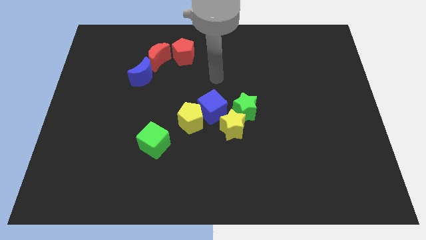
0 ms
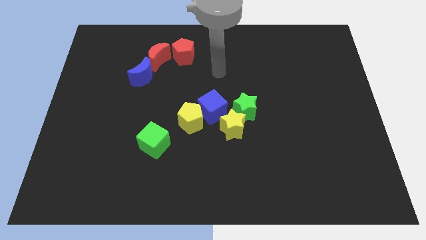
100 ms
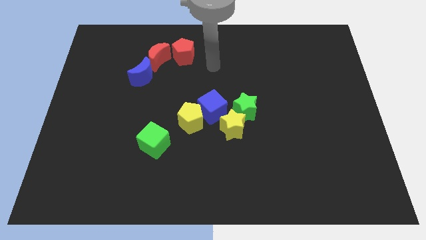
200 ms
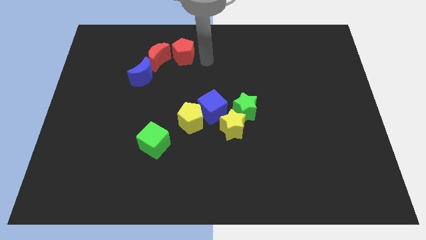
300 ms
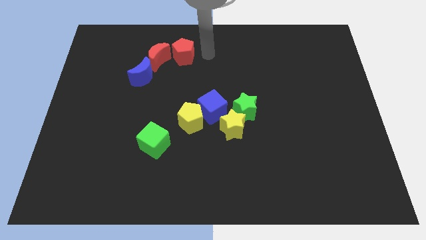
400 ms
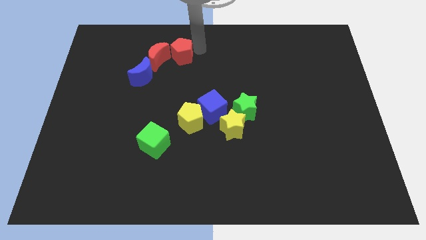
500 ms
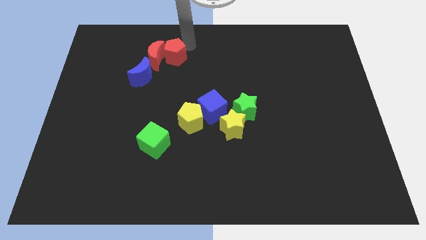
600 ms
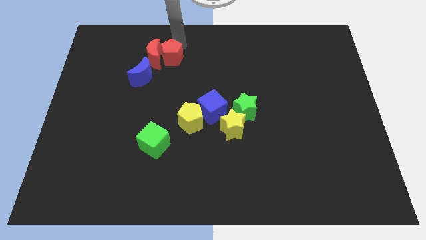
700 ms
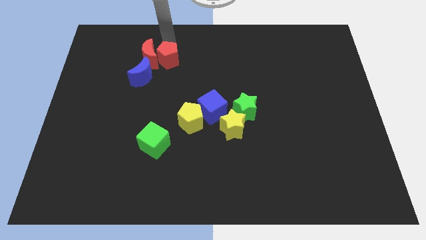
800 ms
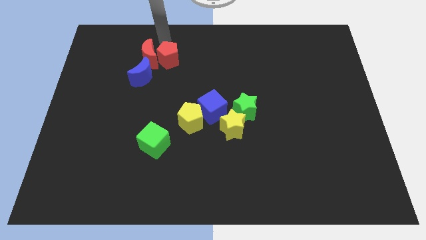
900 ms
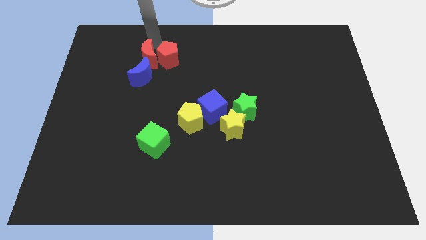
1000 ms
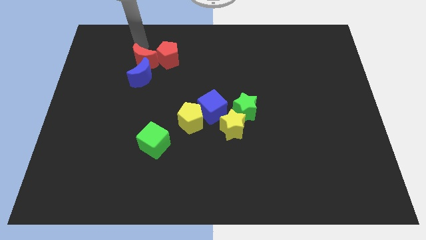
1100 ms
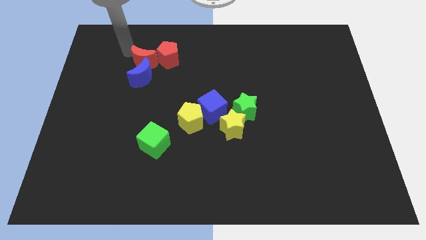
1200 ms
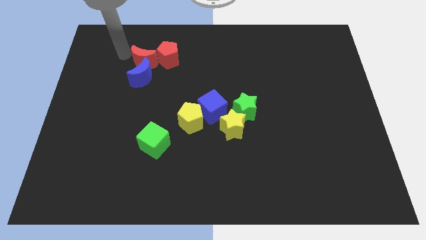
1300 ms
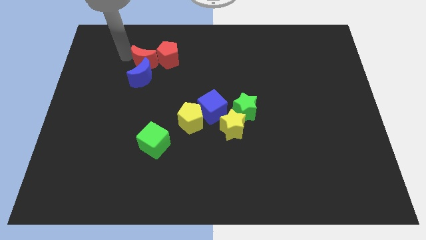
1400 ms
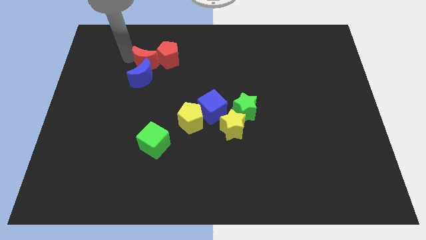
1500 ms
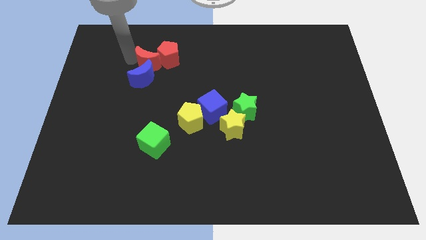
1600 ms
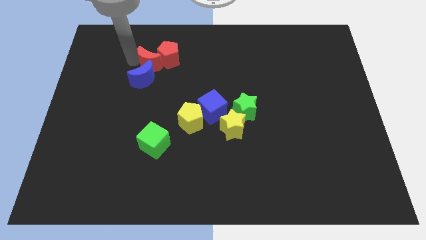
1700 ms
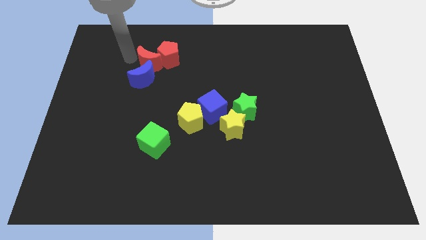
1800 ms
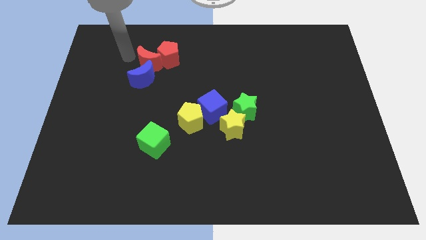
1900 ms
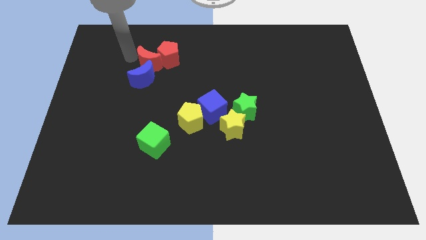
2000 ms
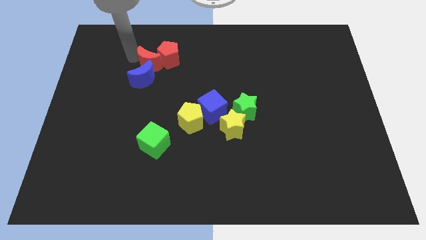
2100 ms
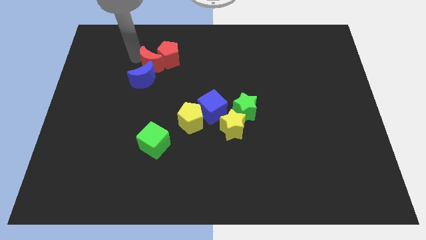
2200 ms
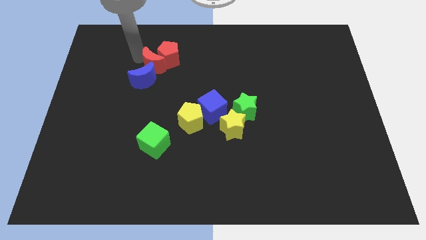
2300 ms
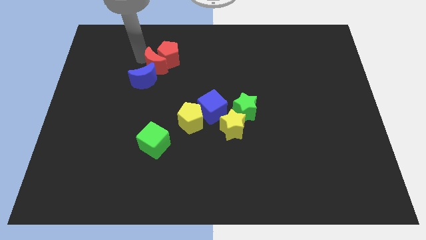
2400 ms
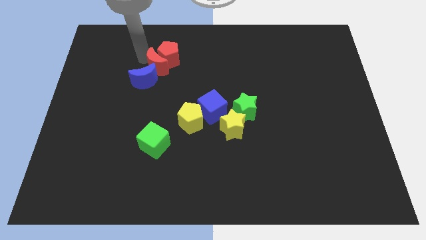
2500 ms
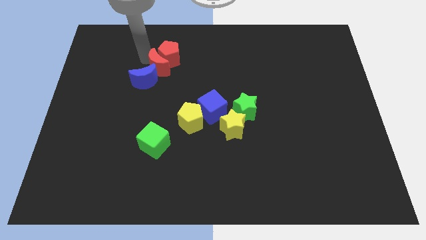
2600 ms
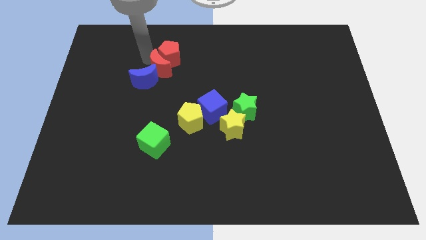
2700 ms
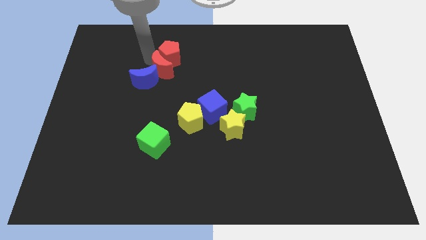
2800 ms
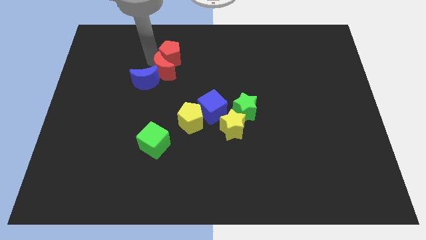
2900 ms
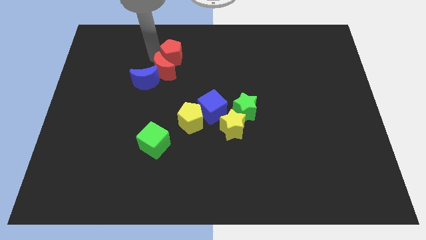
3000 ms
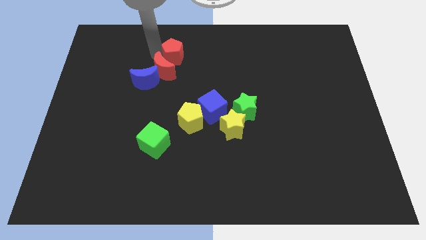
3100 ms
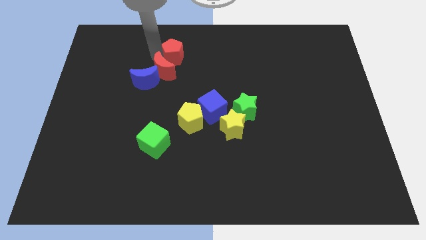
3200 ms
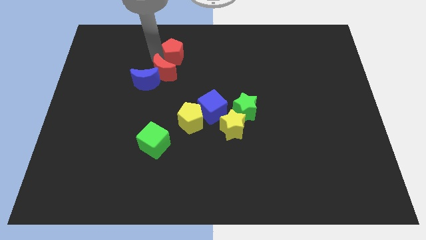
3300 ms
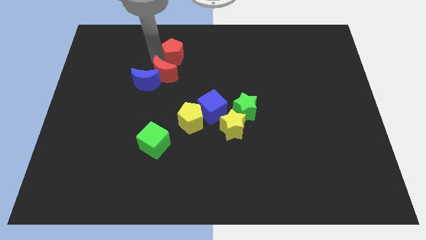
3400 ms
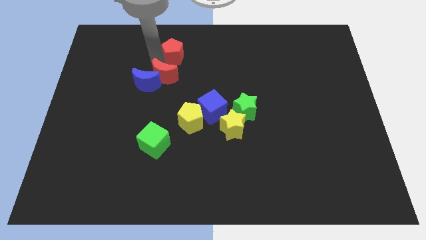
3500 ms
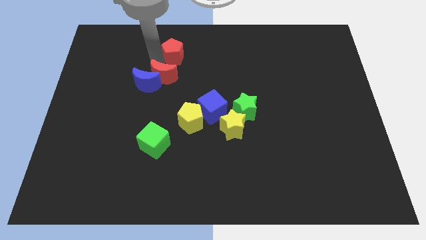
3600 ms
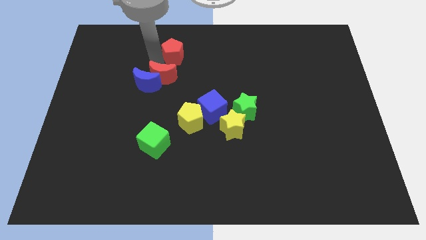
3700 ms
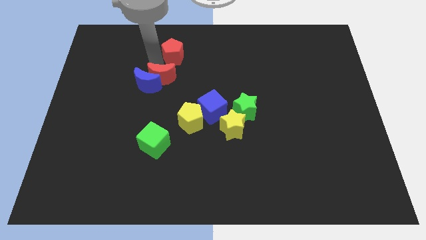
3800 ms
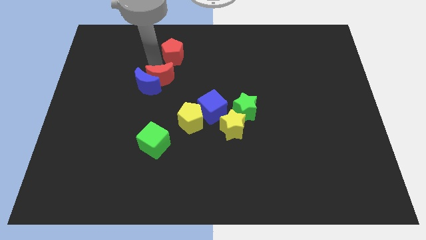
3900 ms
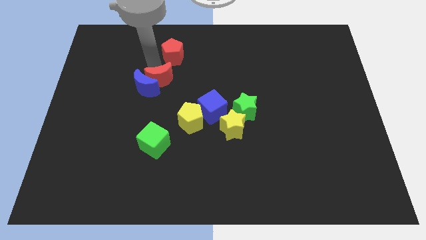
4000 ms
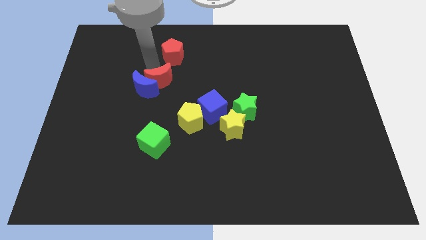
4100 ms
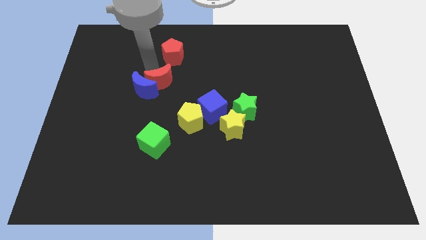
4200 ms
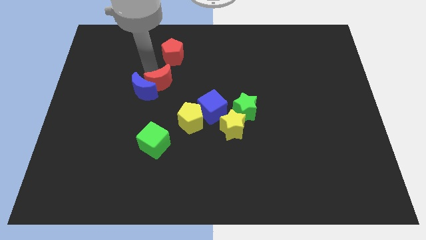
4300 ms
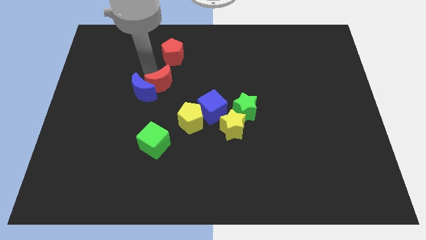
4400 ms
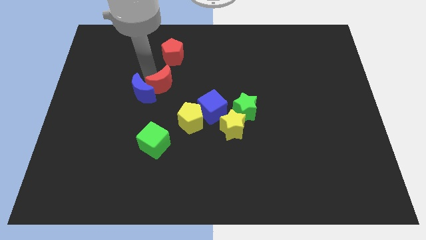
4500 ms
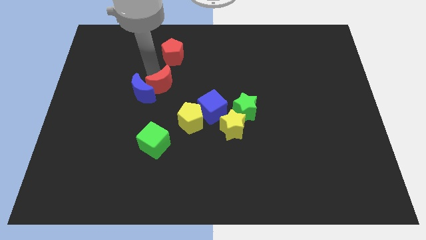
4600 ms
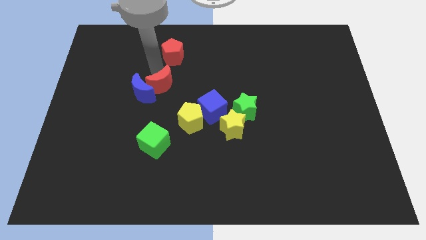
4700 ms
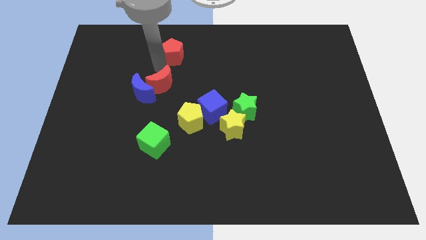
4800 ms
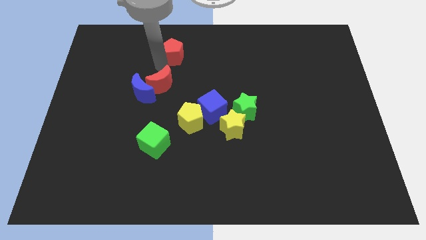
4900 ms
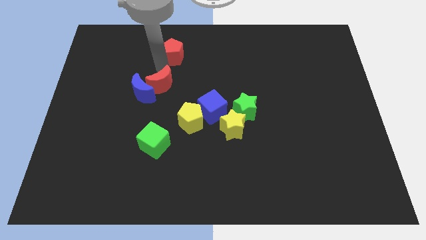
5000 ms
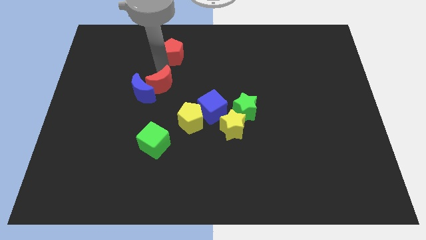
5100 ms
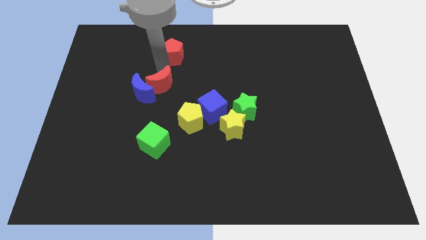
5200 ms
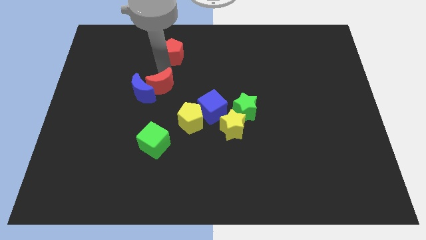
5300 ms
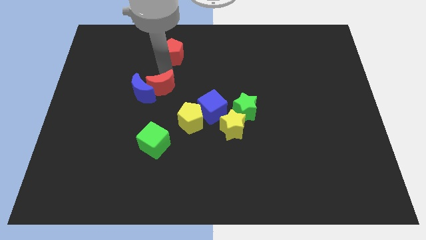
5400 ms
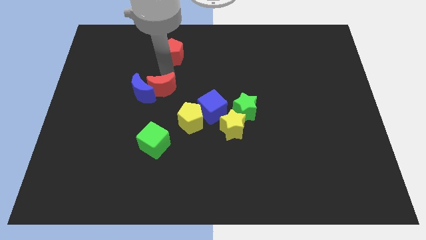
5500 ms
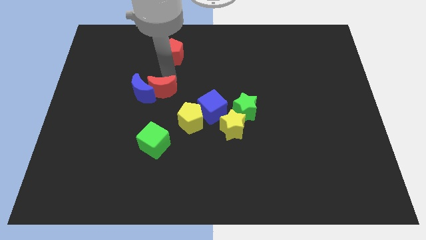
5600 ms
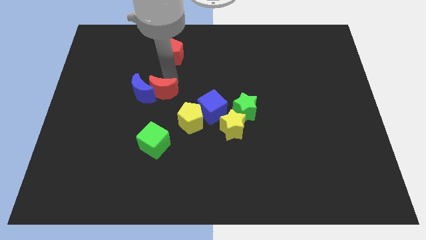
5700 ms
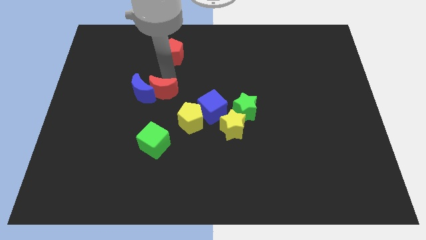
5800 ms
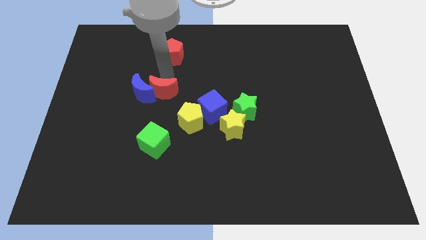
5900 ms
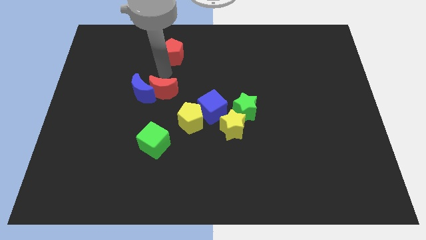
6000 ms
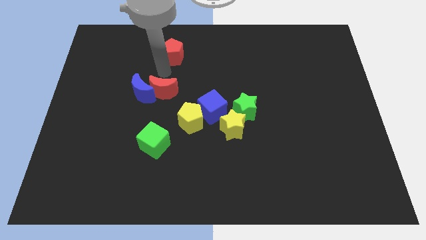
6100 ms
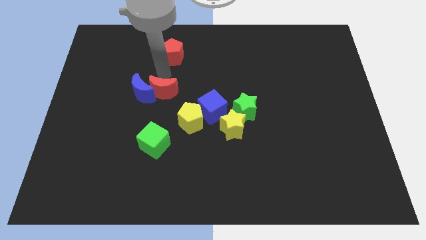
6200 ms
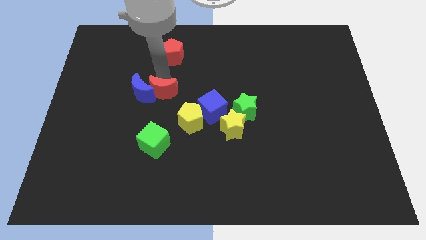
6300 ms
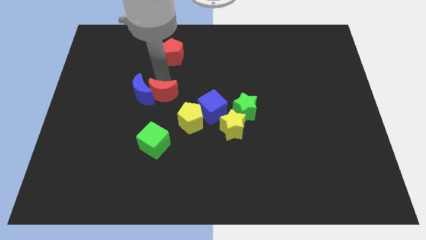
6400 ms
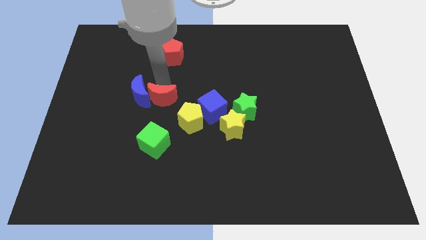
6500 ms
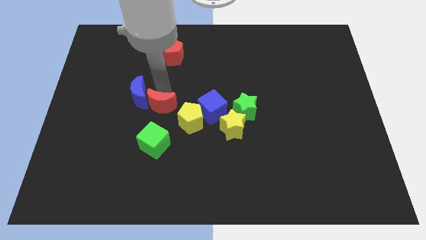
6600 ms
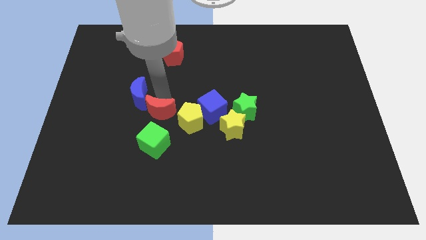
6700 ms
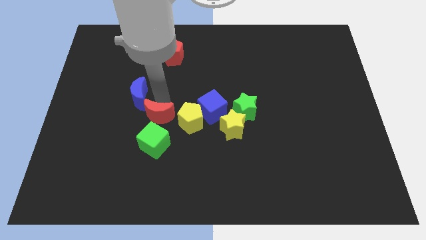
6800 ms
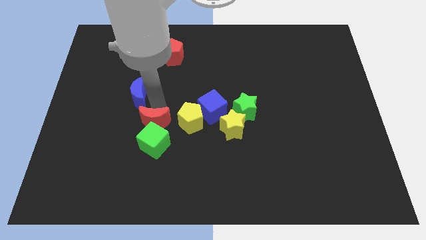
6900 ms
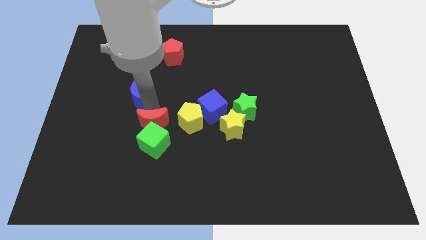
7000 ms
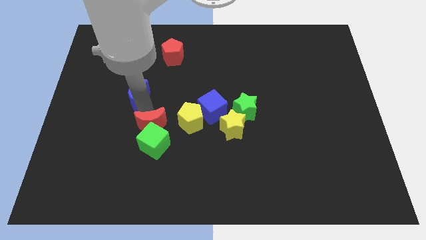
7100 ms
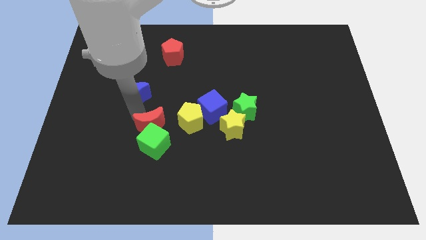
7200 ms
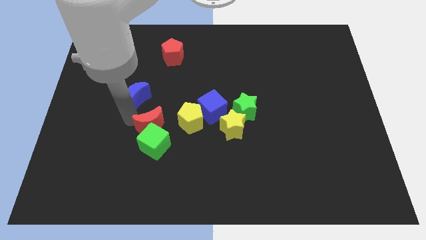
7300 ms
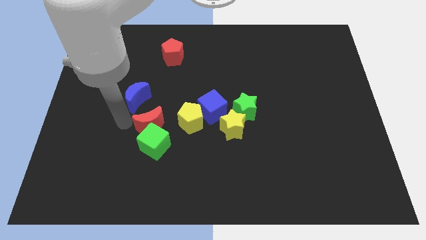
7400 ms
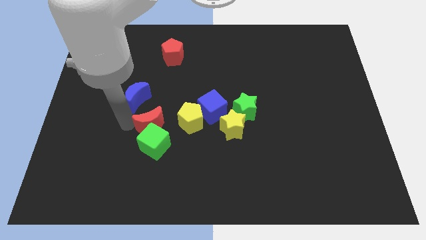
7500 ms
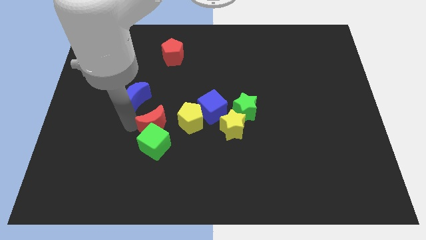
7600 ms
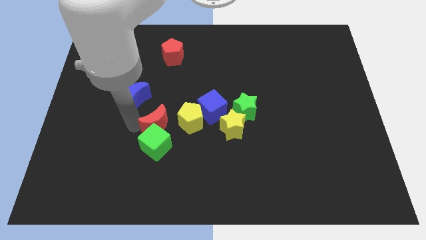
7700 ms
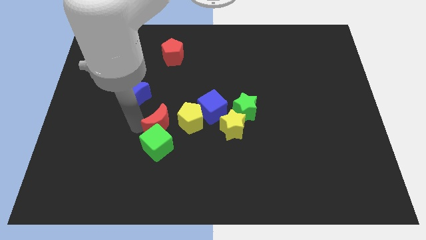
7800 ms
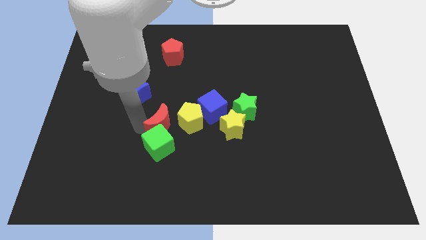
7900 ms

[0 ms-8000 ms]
push the red moon to the left of the yellow star
